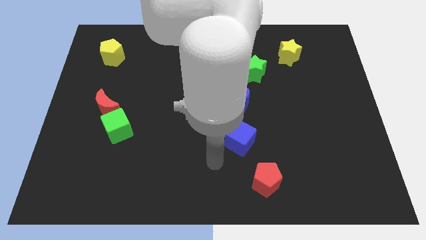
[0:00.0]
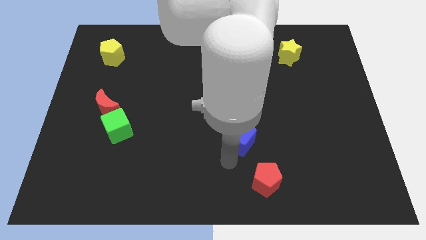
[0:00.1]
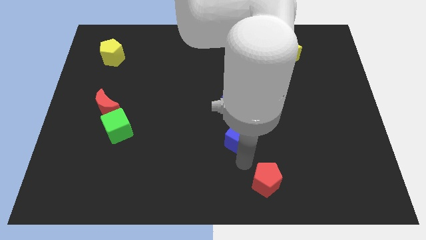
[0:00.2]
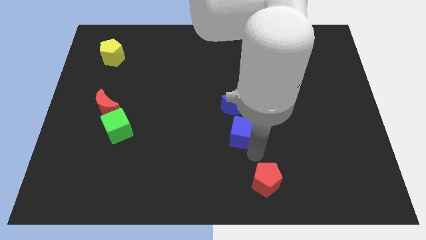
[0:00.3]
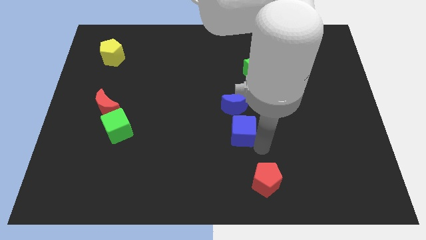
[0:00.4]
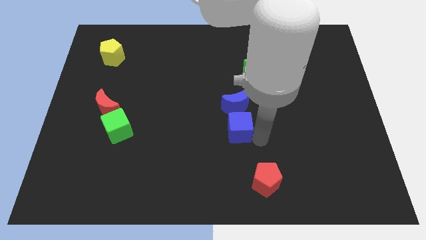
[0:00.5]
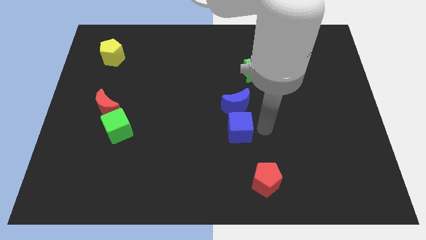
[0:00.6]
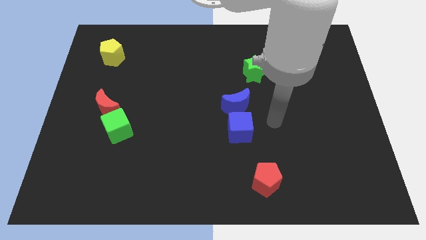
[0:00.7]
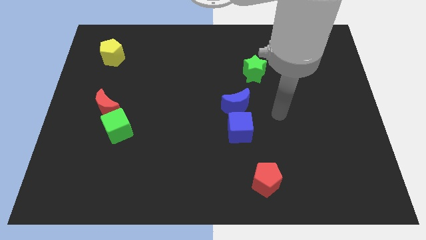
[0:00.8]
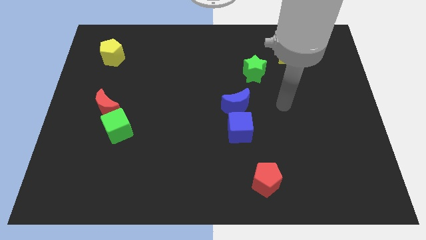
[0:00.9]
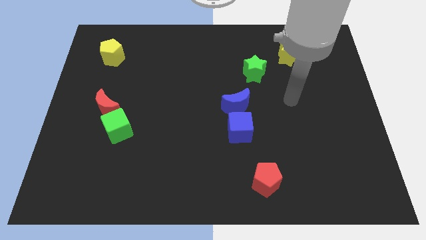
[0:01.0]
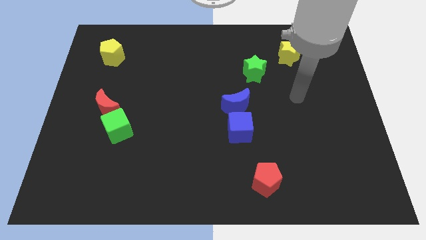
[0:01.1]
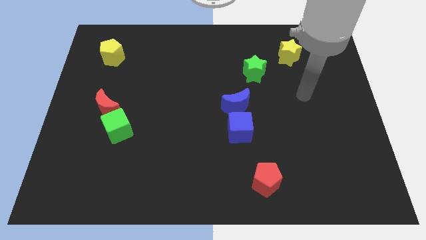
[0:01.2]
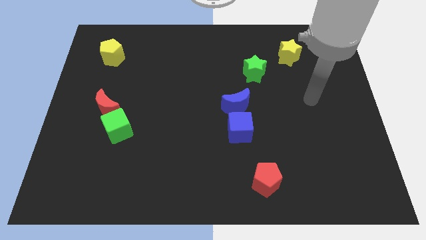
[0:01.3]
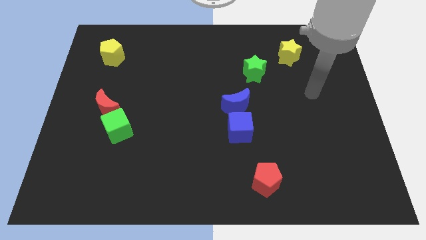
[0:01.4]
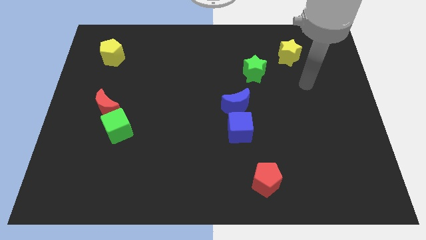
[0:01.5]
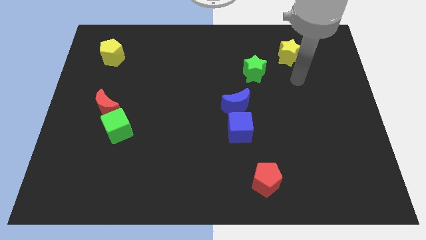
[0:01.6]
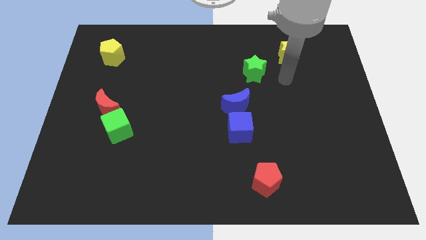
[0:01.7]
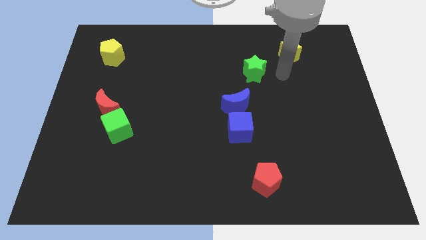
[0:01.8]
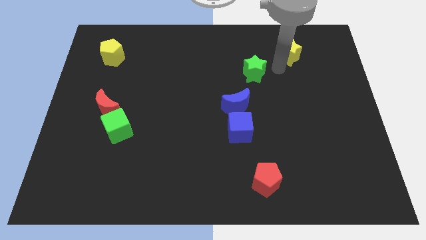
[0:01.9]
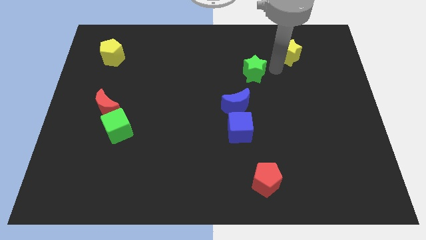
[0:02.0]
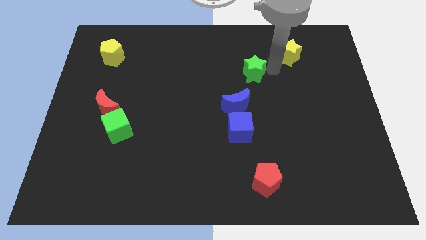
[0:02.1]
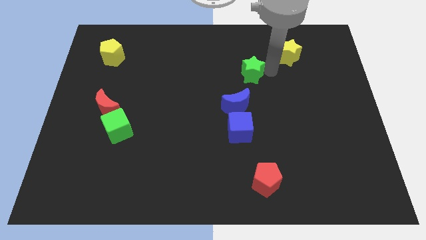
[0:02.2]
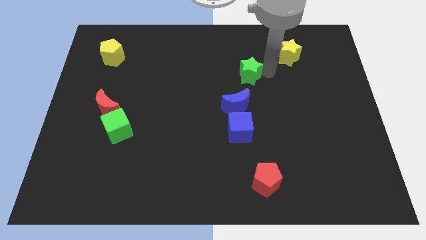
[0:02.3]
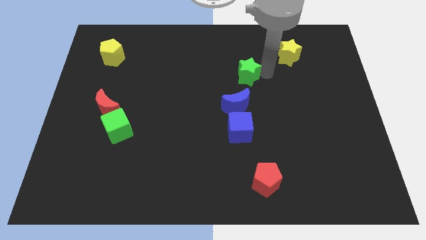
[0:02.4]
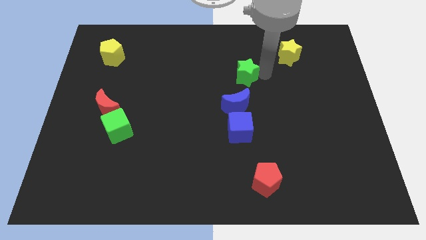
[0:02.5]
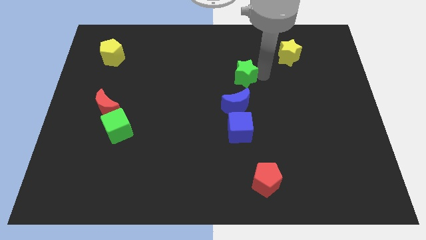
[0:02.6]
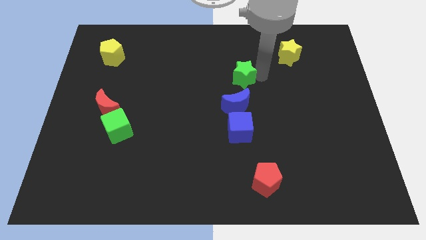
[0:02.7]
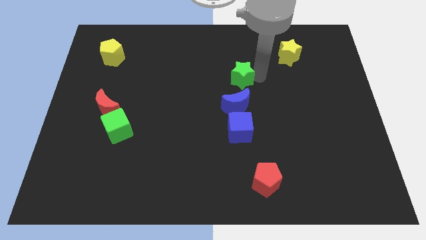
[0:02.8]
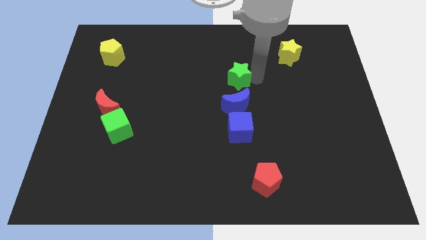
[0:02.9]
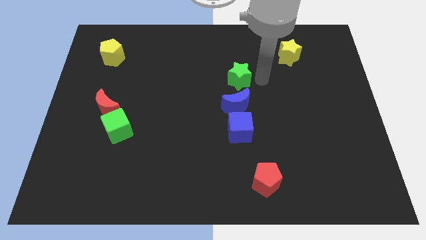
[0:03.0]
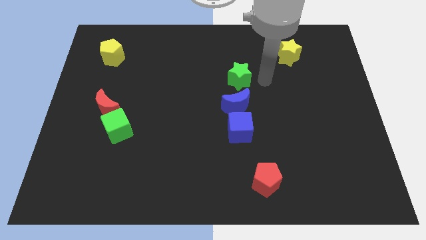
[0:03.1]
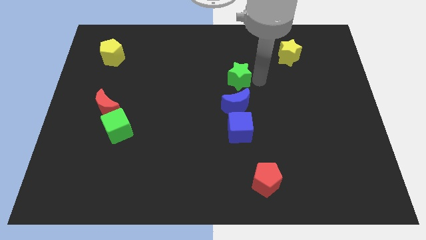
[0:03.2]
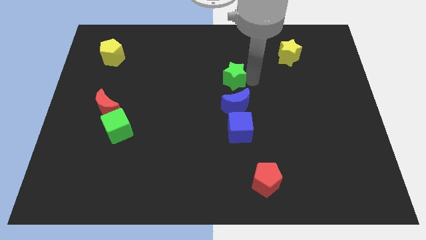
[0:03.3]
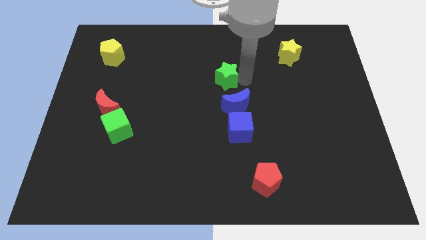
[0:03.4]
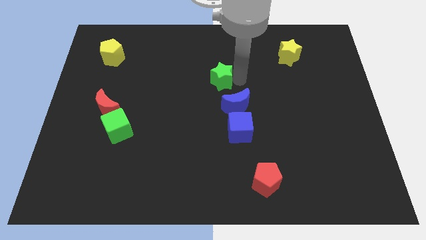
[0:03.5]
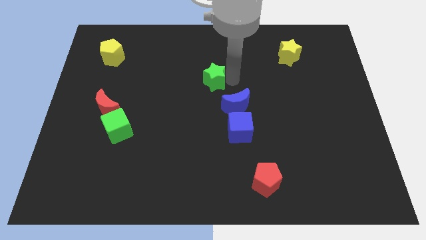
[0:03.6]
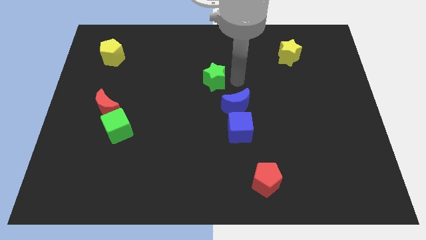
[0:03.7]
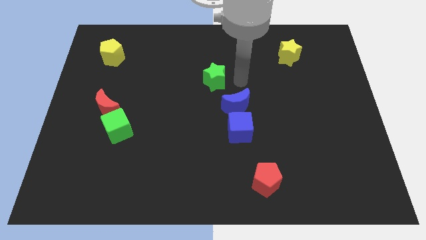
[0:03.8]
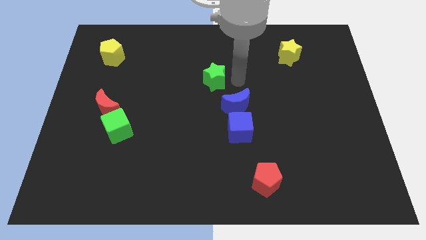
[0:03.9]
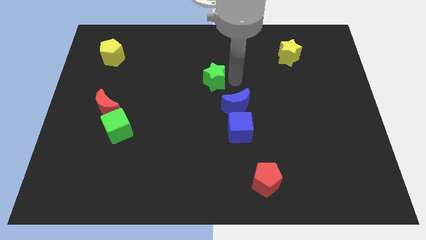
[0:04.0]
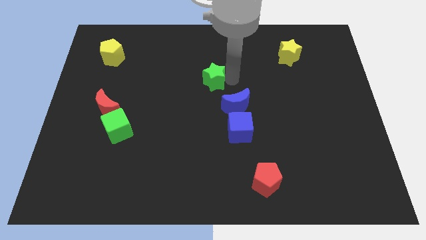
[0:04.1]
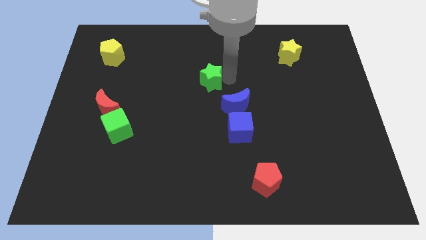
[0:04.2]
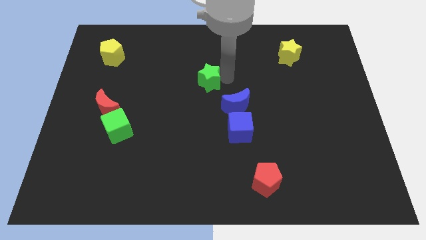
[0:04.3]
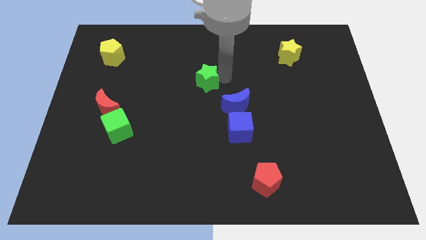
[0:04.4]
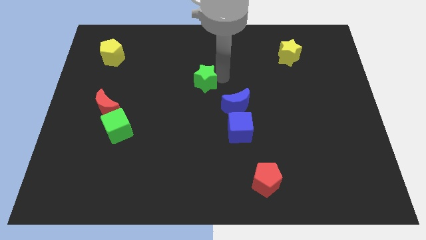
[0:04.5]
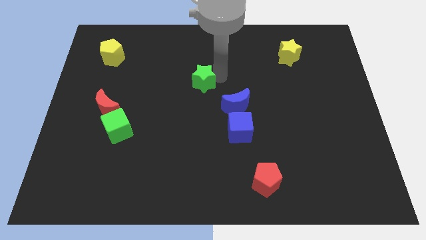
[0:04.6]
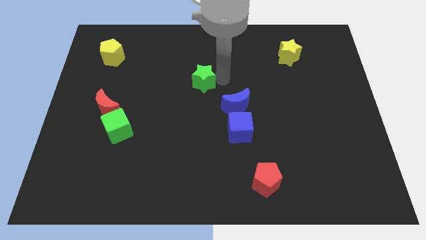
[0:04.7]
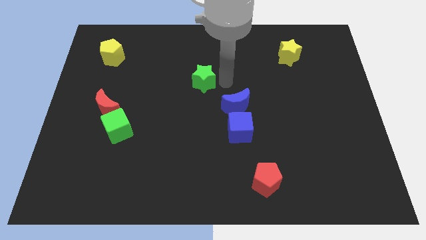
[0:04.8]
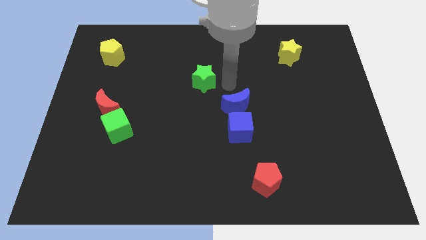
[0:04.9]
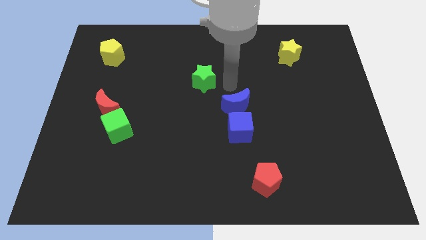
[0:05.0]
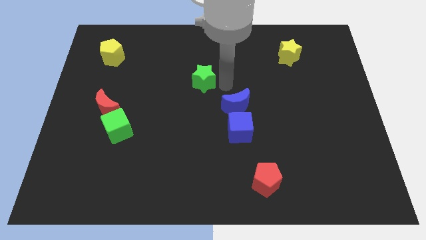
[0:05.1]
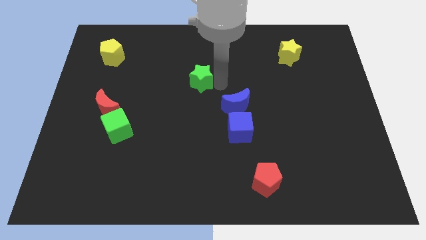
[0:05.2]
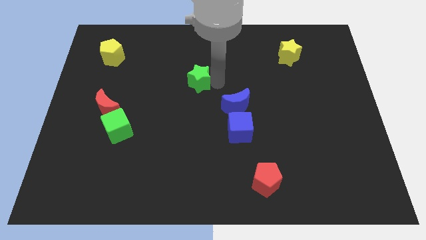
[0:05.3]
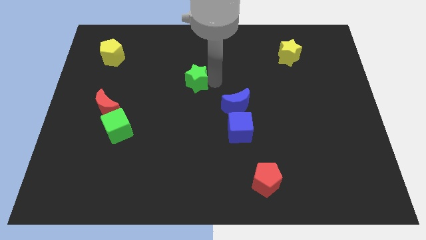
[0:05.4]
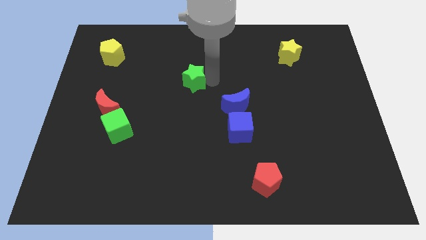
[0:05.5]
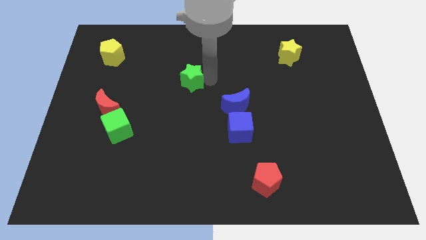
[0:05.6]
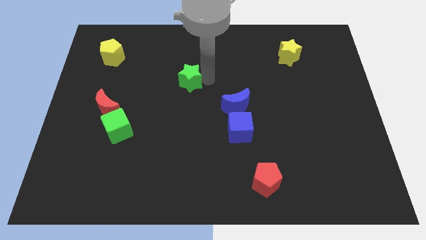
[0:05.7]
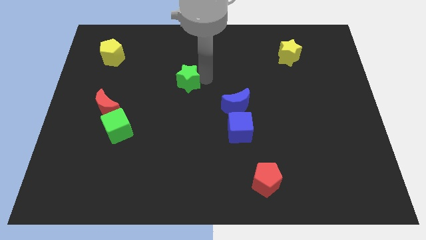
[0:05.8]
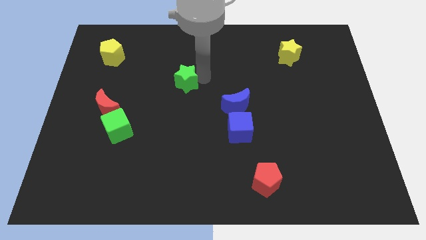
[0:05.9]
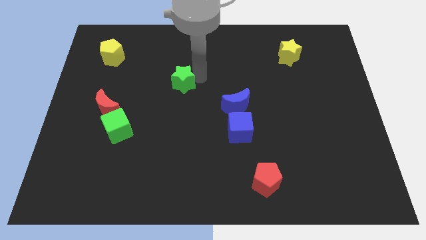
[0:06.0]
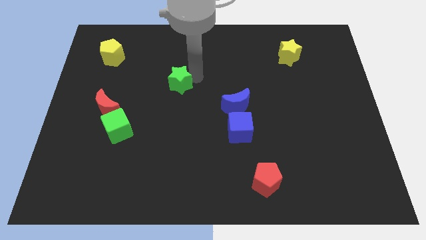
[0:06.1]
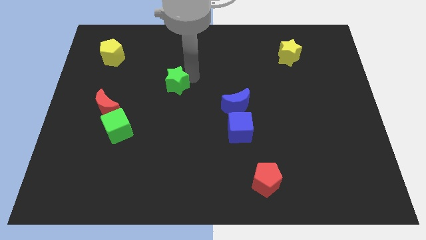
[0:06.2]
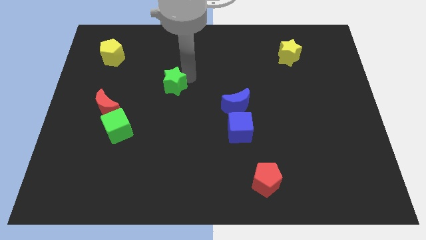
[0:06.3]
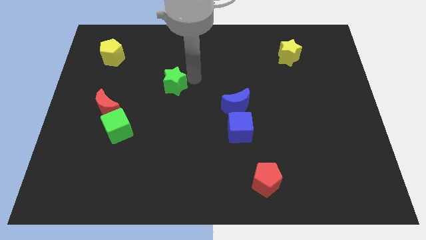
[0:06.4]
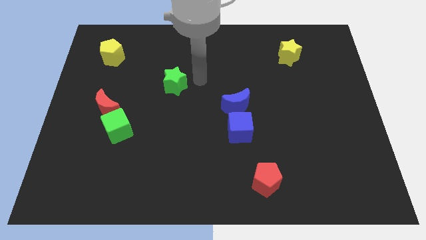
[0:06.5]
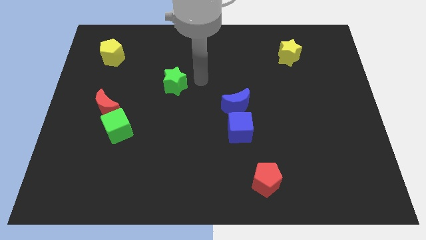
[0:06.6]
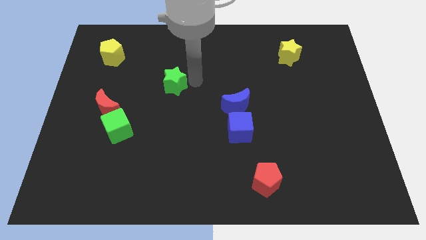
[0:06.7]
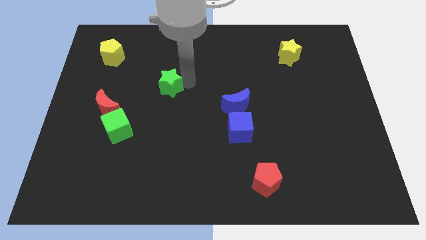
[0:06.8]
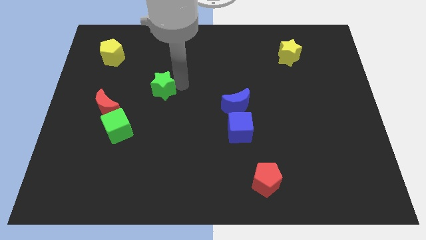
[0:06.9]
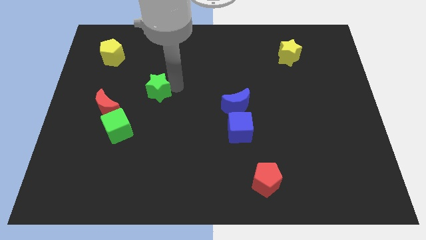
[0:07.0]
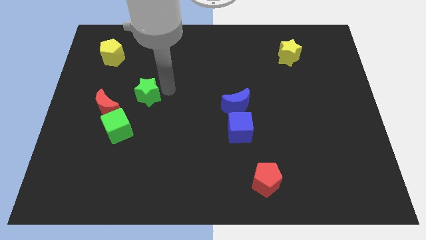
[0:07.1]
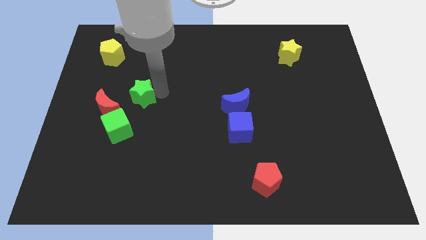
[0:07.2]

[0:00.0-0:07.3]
push the green star to the top of the green cube
